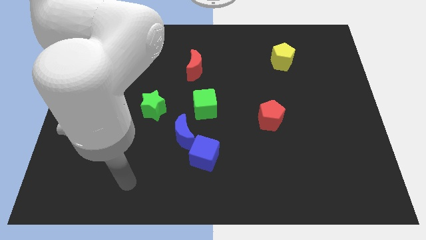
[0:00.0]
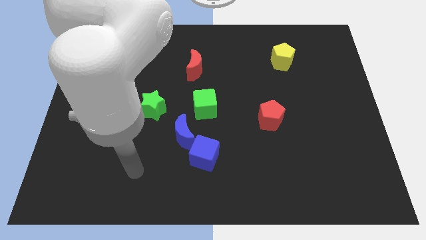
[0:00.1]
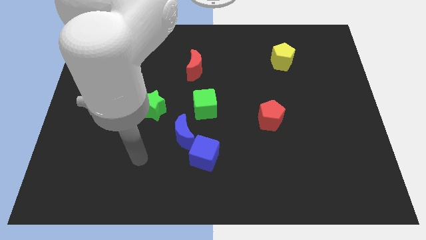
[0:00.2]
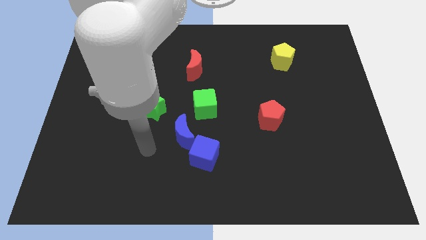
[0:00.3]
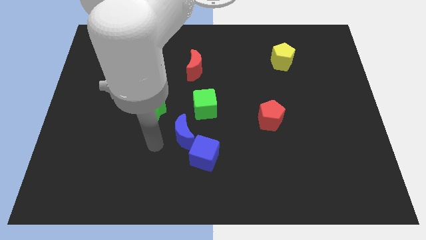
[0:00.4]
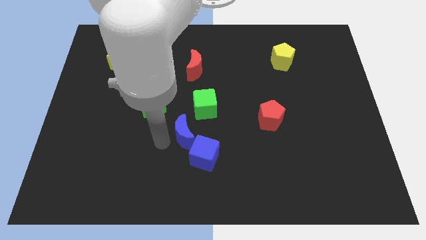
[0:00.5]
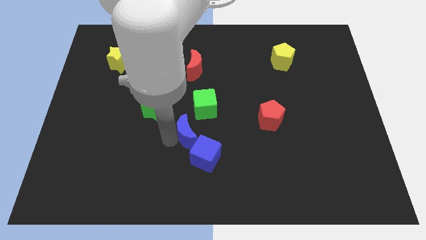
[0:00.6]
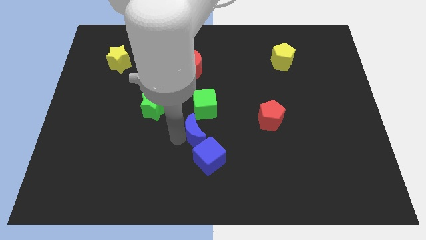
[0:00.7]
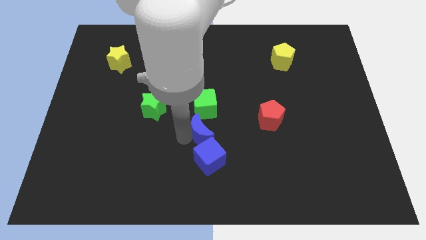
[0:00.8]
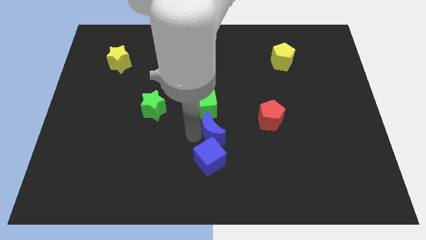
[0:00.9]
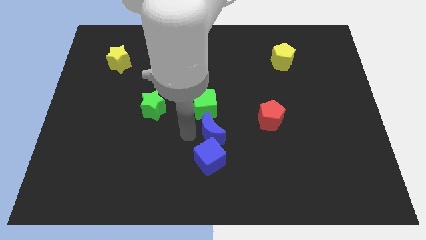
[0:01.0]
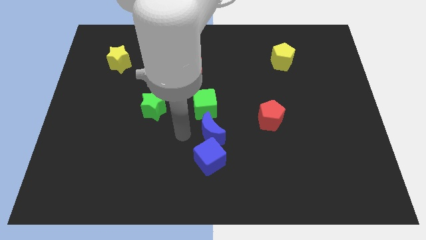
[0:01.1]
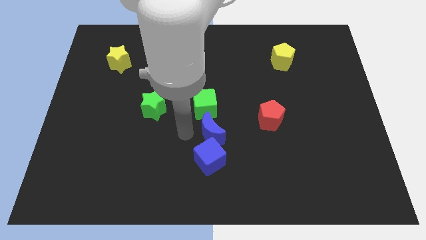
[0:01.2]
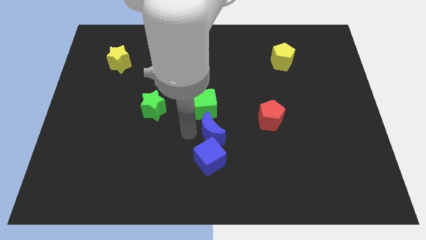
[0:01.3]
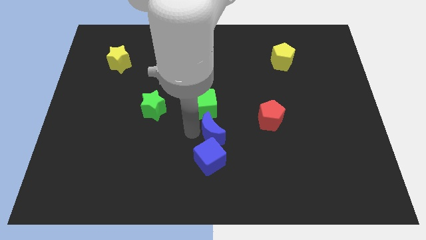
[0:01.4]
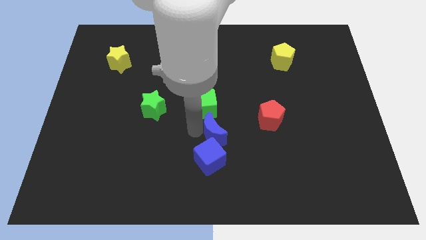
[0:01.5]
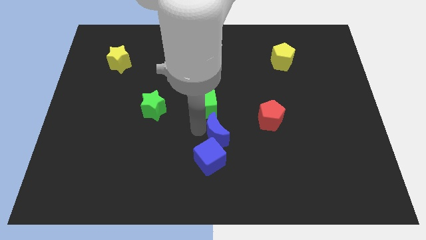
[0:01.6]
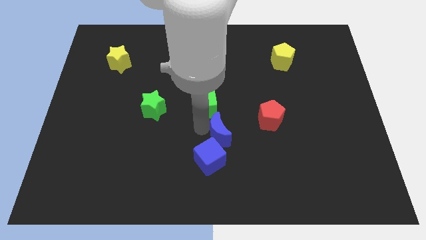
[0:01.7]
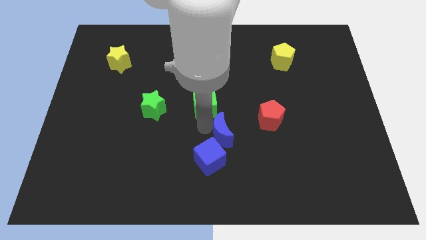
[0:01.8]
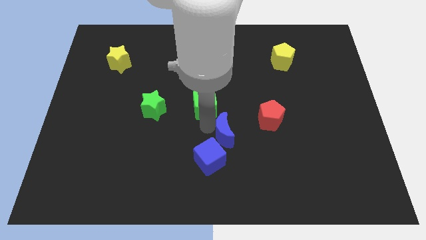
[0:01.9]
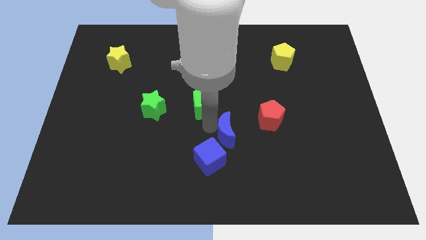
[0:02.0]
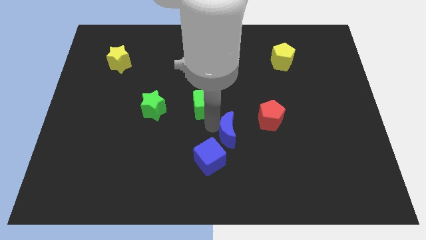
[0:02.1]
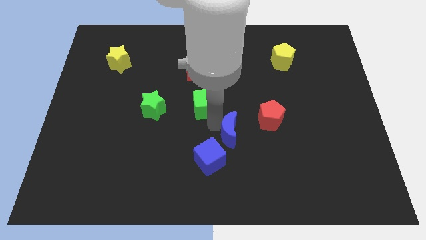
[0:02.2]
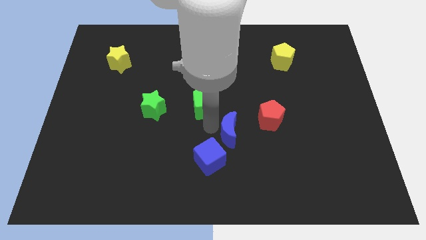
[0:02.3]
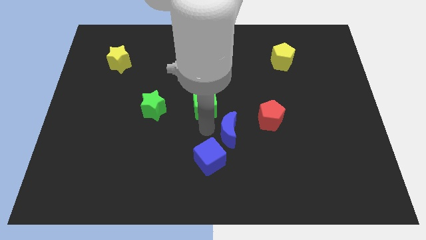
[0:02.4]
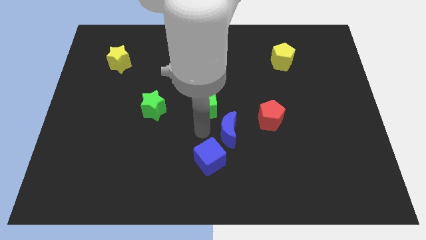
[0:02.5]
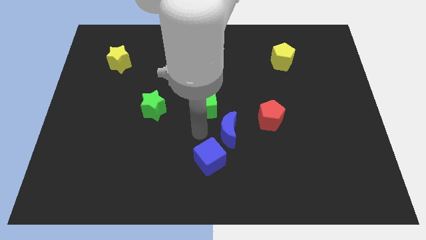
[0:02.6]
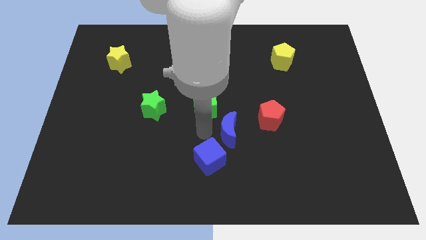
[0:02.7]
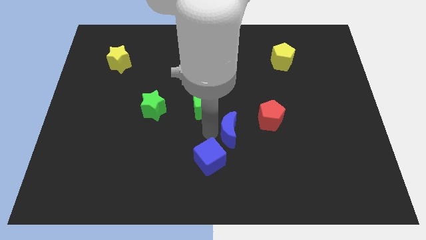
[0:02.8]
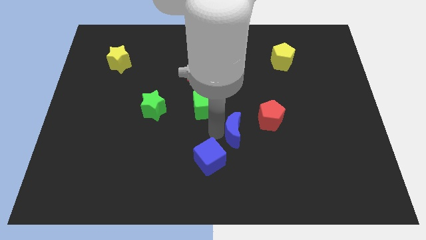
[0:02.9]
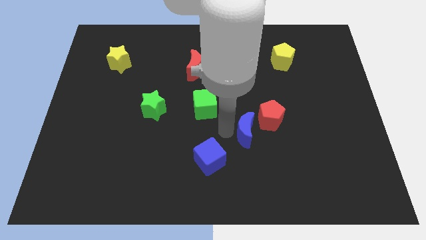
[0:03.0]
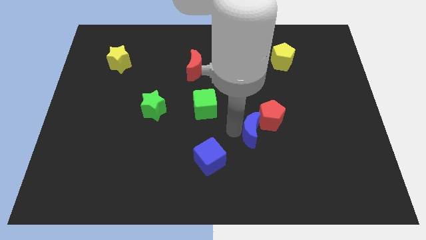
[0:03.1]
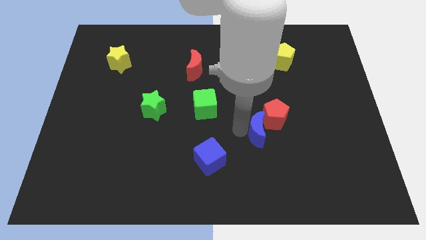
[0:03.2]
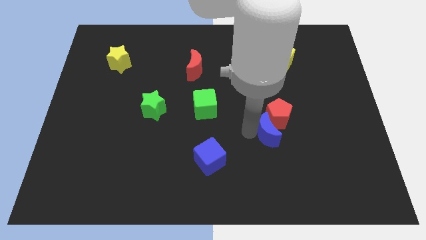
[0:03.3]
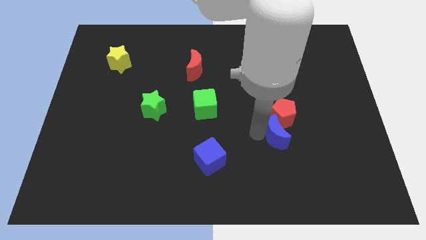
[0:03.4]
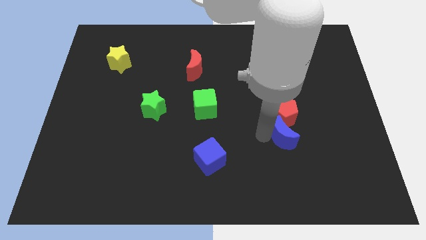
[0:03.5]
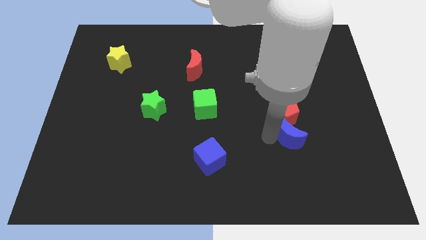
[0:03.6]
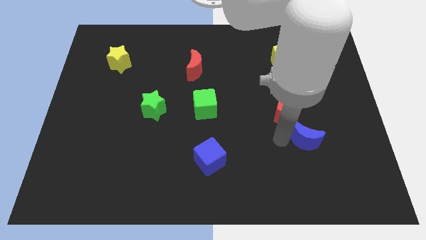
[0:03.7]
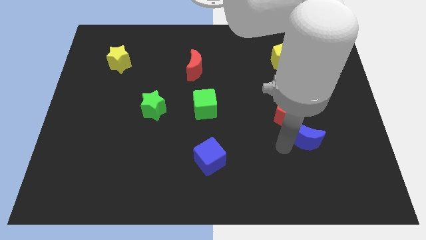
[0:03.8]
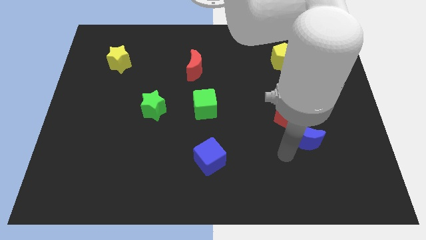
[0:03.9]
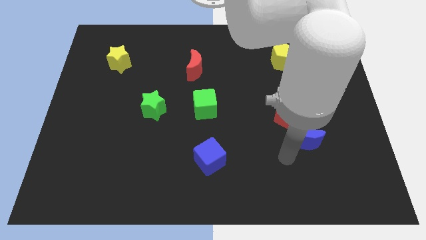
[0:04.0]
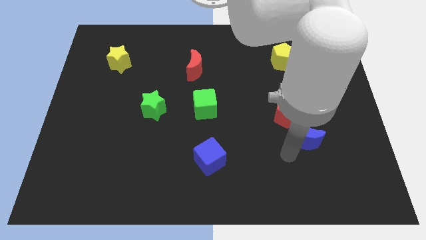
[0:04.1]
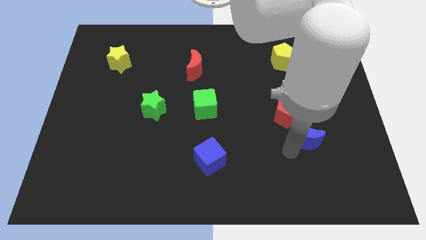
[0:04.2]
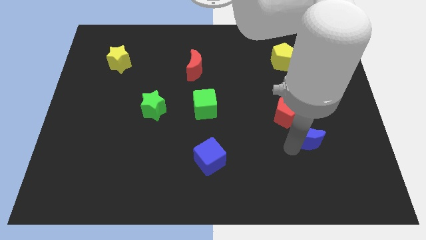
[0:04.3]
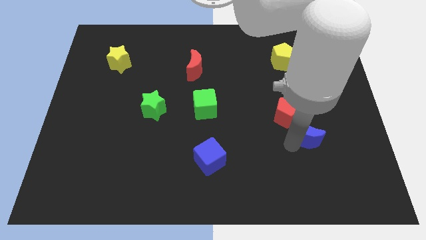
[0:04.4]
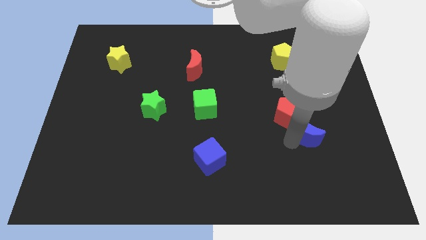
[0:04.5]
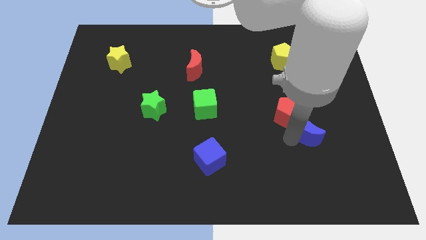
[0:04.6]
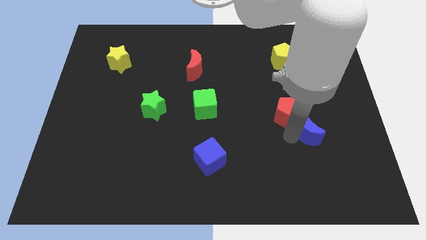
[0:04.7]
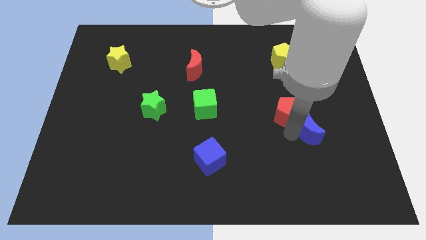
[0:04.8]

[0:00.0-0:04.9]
slide the blue moon to the right of the red pentagon

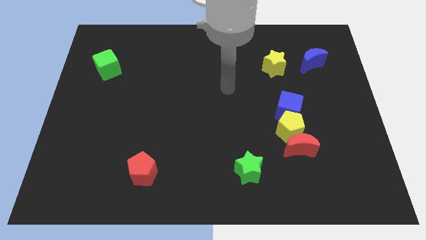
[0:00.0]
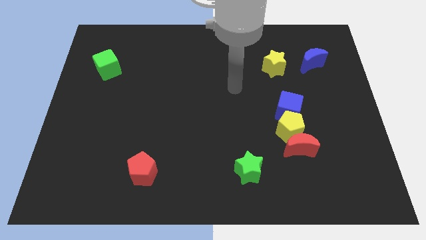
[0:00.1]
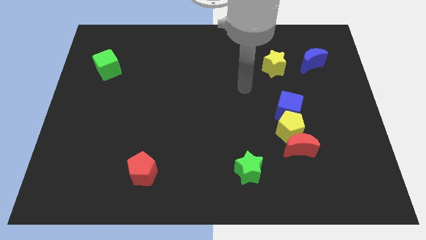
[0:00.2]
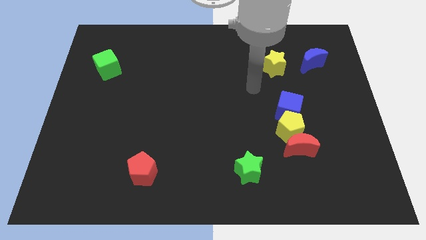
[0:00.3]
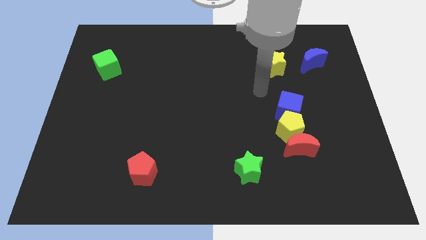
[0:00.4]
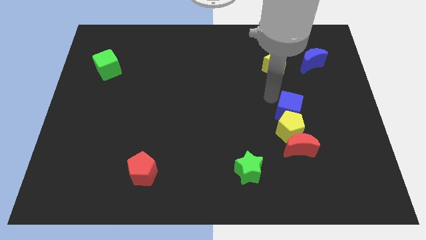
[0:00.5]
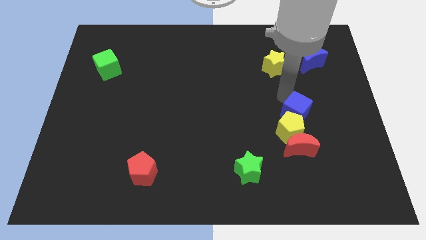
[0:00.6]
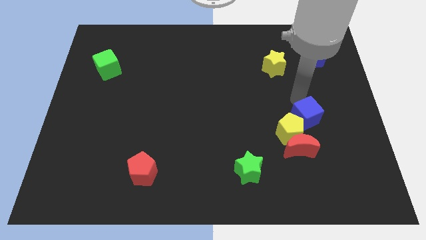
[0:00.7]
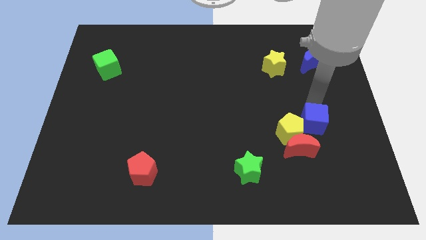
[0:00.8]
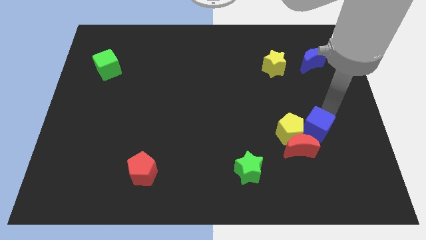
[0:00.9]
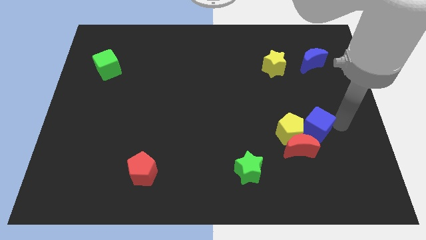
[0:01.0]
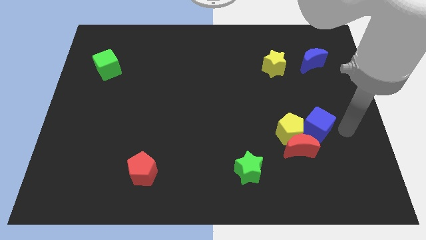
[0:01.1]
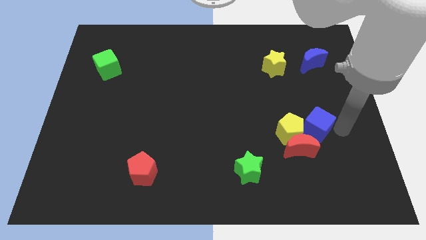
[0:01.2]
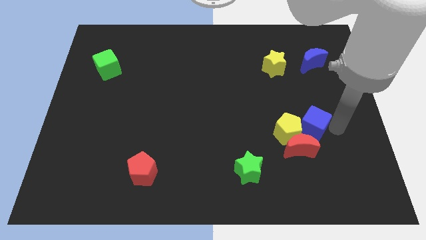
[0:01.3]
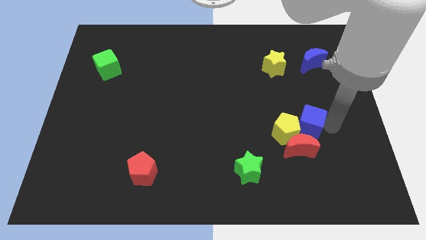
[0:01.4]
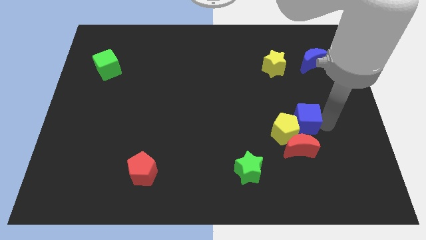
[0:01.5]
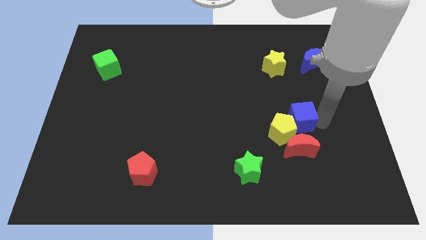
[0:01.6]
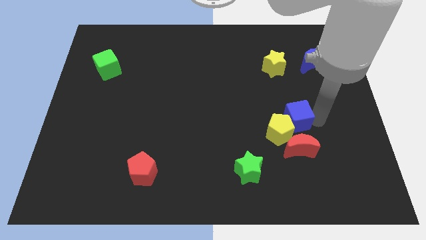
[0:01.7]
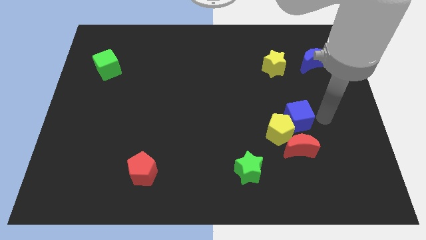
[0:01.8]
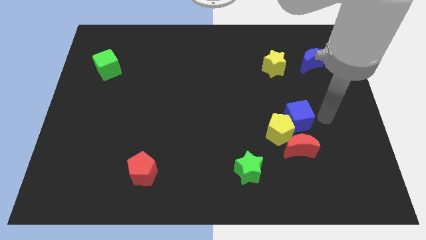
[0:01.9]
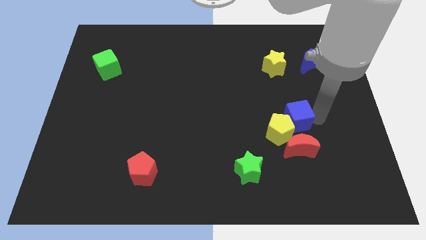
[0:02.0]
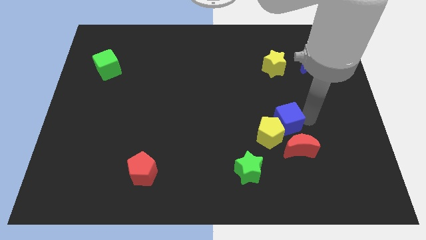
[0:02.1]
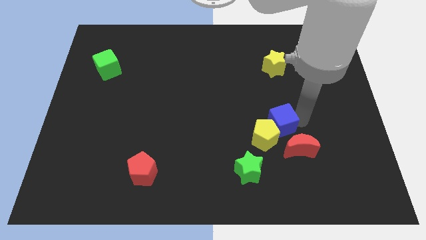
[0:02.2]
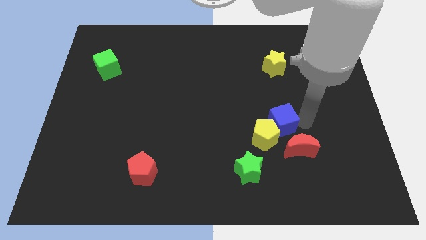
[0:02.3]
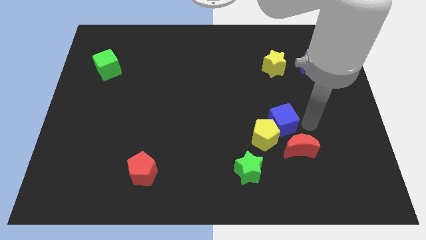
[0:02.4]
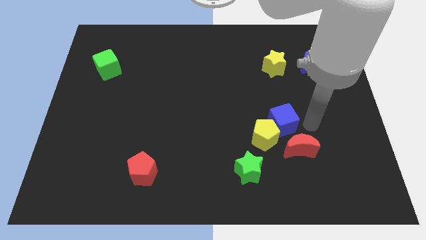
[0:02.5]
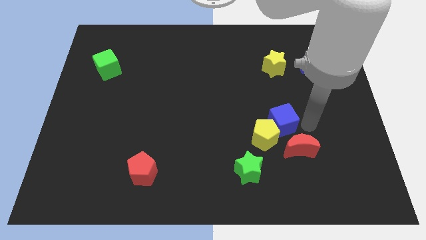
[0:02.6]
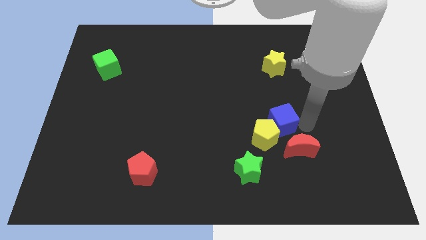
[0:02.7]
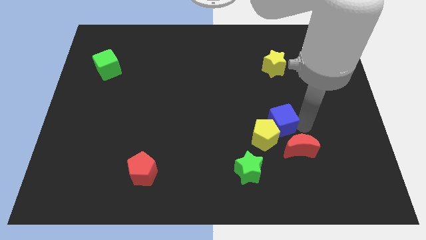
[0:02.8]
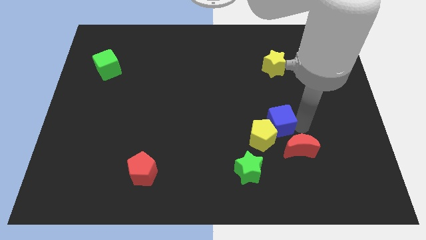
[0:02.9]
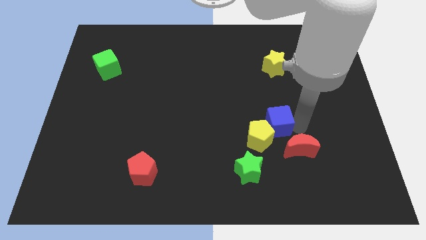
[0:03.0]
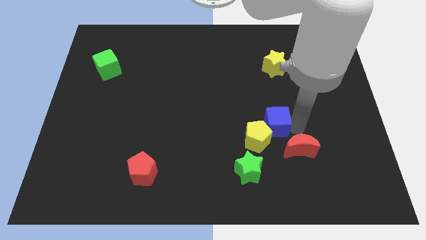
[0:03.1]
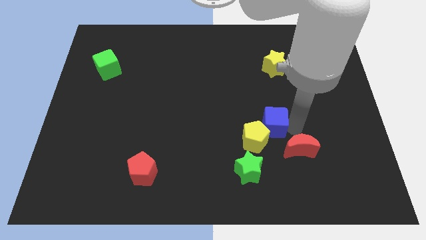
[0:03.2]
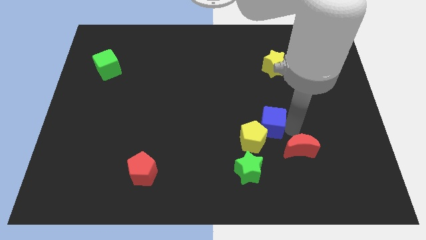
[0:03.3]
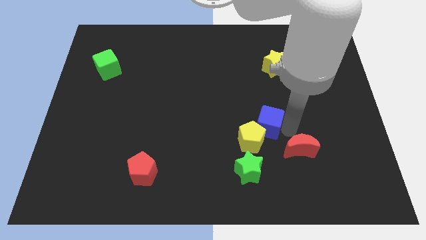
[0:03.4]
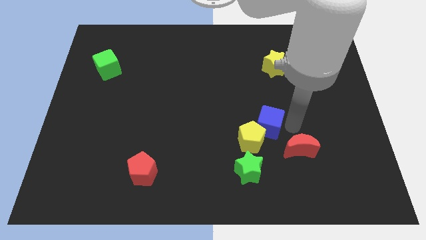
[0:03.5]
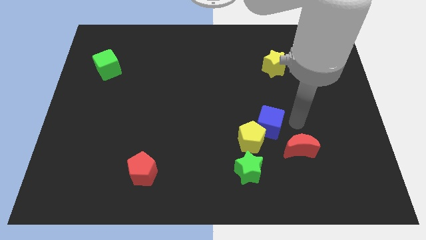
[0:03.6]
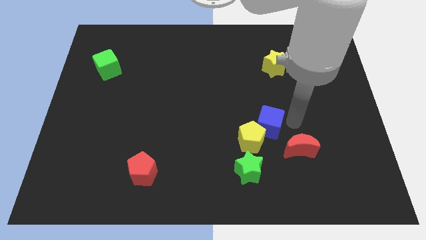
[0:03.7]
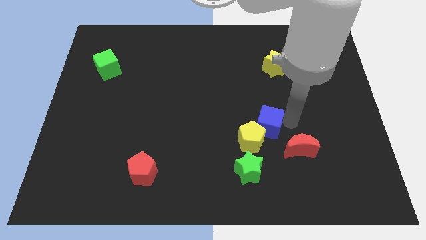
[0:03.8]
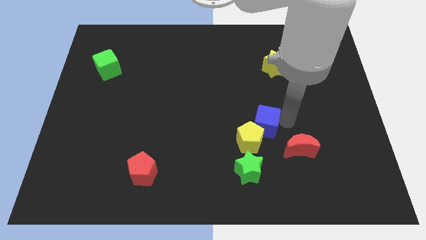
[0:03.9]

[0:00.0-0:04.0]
move the blue cube to the top side of the green star
